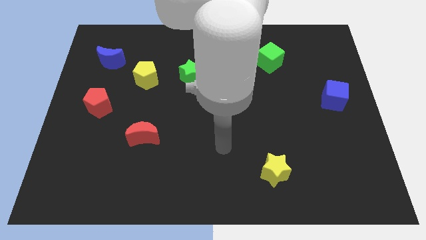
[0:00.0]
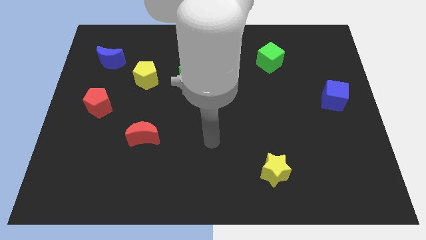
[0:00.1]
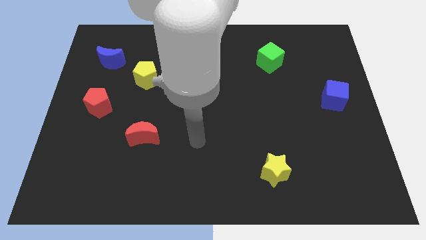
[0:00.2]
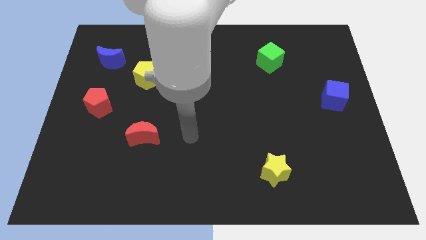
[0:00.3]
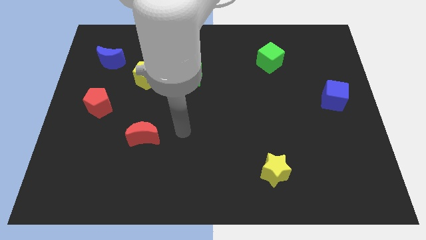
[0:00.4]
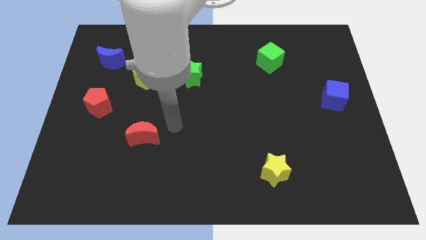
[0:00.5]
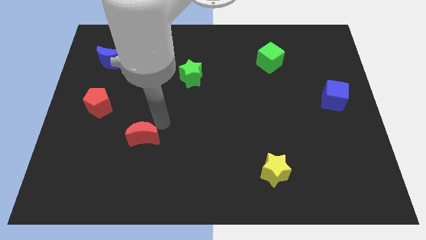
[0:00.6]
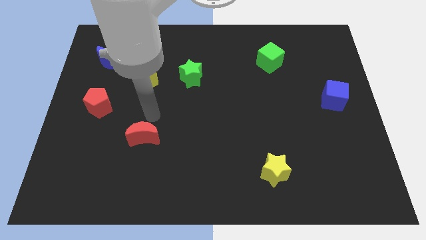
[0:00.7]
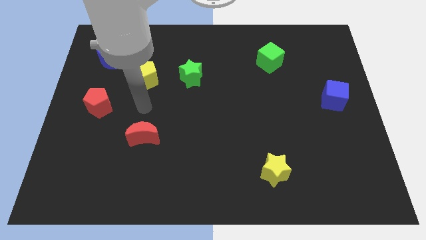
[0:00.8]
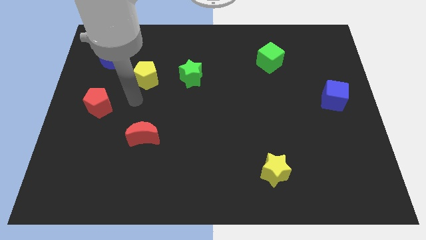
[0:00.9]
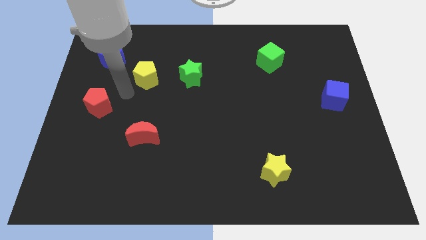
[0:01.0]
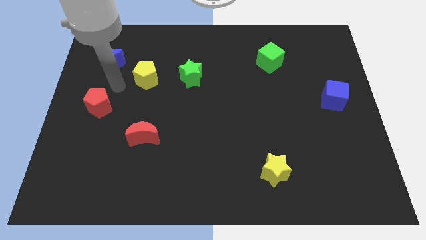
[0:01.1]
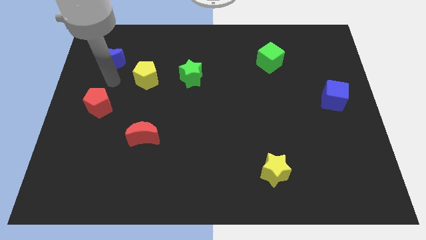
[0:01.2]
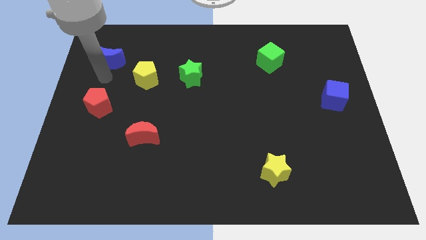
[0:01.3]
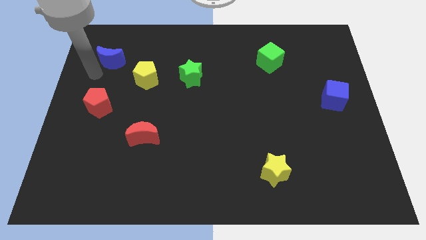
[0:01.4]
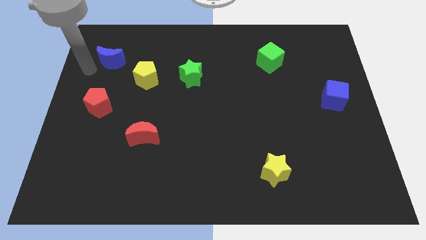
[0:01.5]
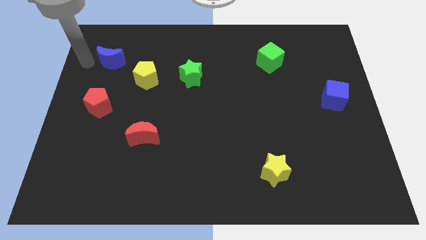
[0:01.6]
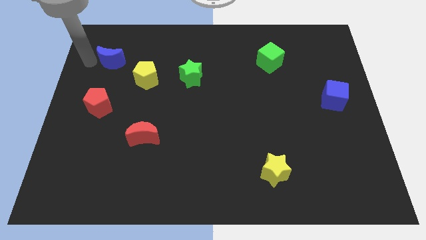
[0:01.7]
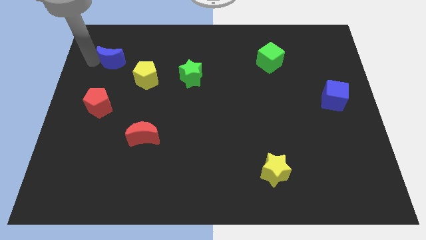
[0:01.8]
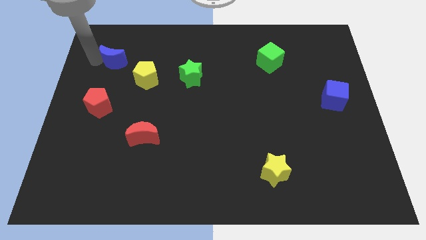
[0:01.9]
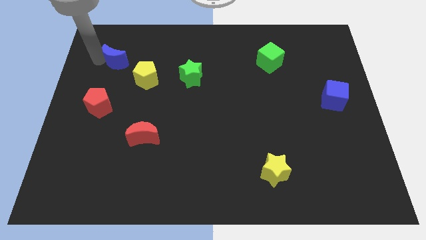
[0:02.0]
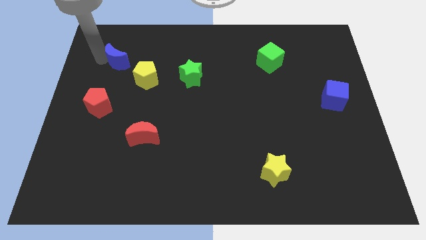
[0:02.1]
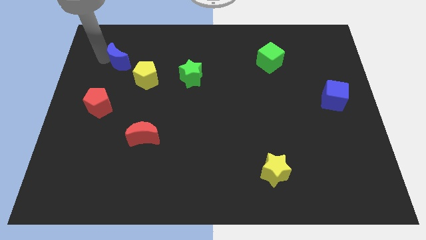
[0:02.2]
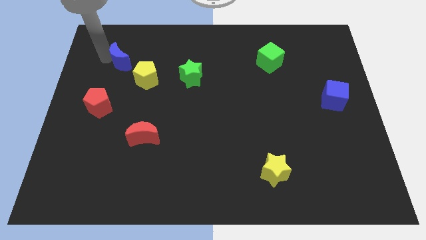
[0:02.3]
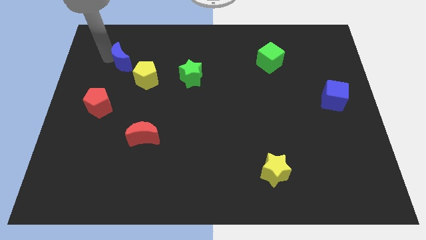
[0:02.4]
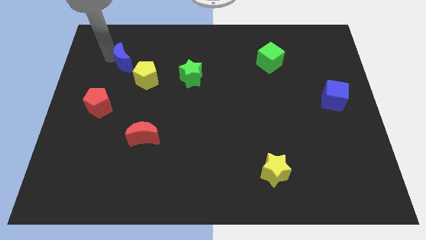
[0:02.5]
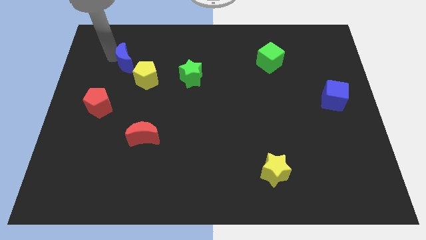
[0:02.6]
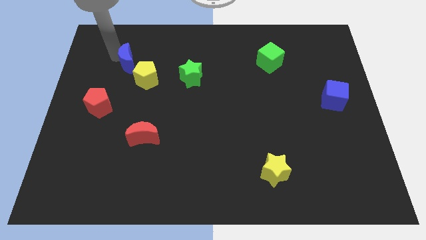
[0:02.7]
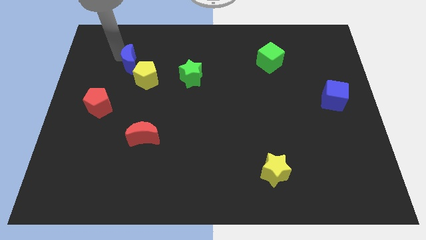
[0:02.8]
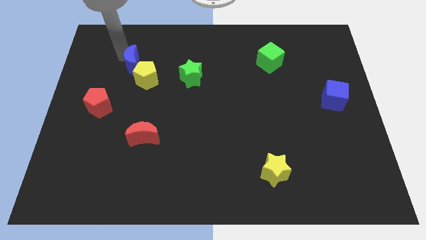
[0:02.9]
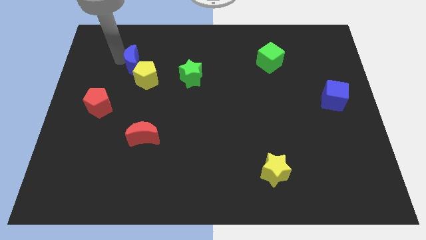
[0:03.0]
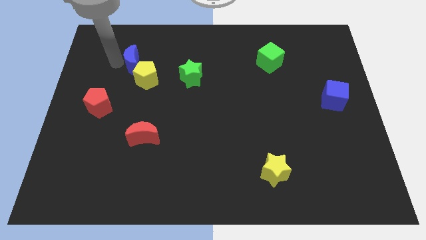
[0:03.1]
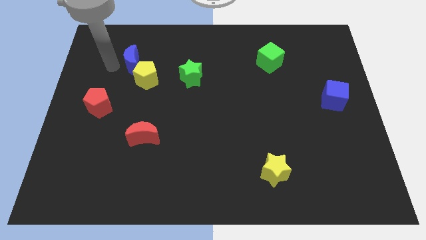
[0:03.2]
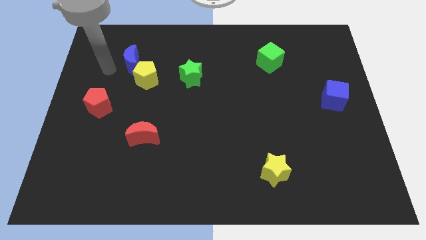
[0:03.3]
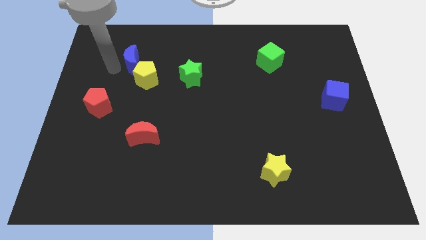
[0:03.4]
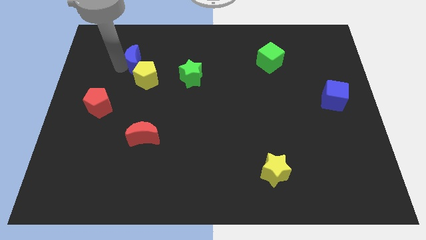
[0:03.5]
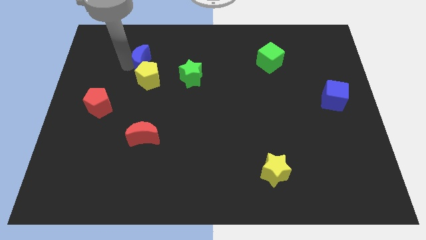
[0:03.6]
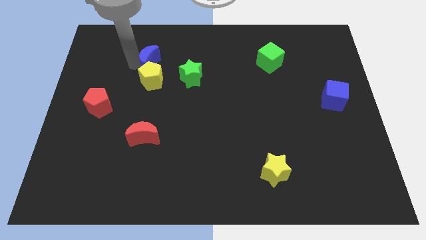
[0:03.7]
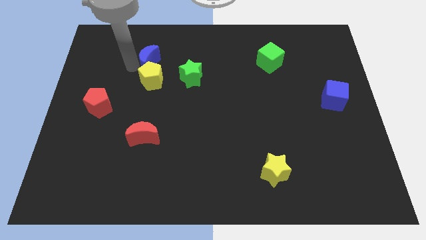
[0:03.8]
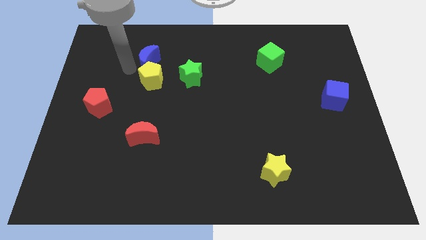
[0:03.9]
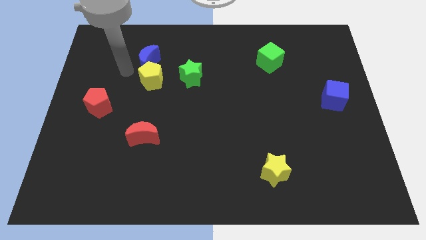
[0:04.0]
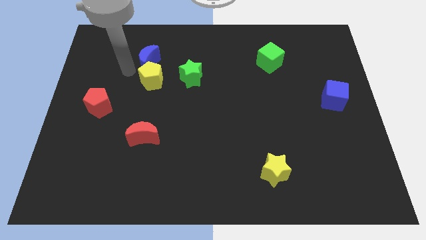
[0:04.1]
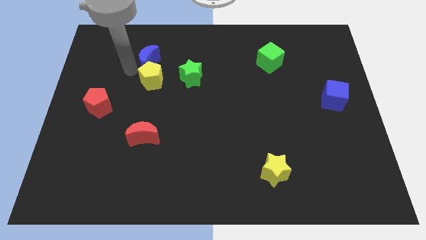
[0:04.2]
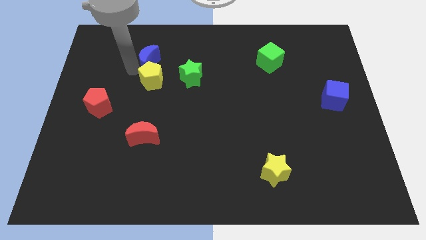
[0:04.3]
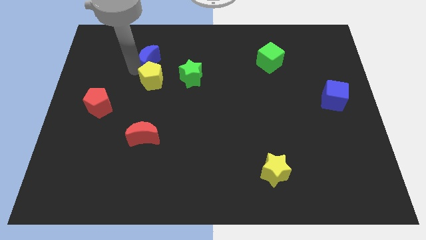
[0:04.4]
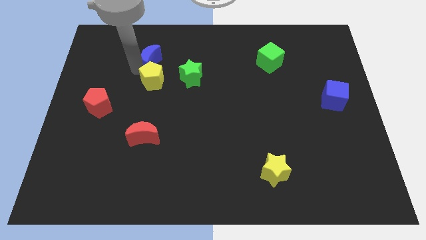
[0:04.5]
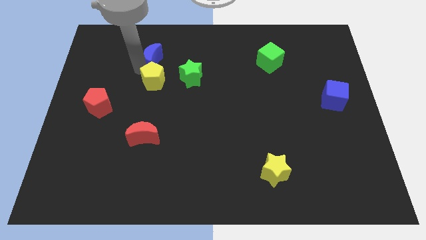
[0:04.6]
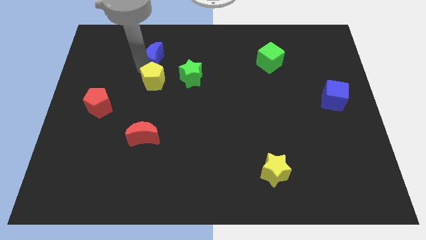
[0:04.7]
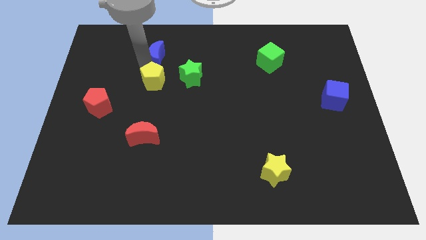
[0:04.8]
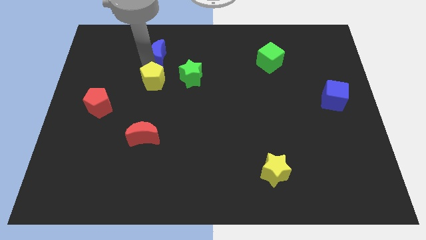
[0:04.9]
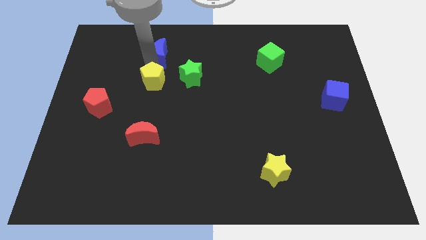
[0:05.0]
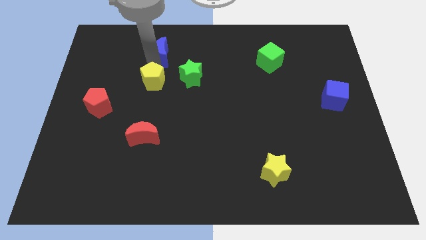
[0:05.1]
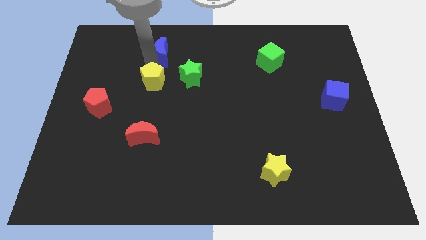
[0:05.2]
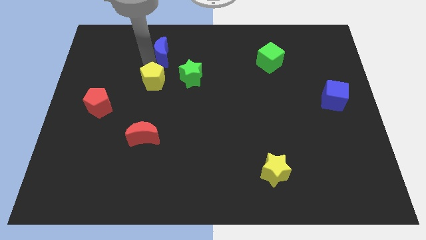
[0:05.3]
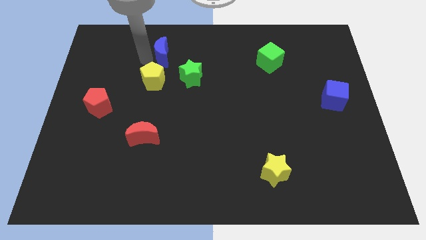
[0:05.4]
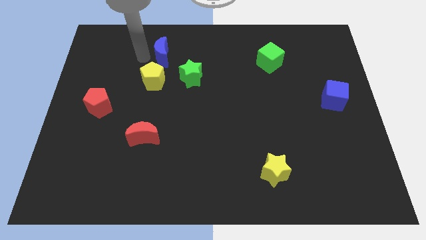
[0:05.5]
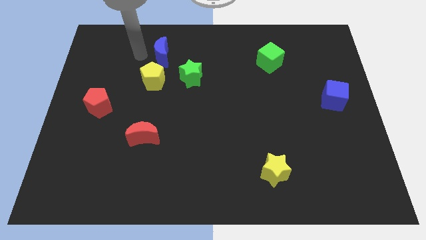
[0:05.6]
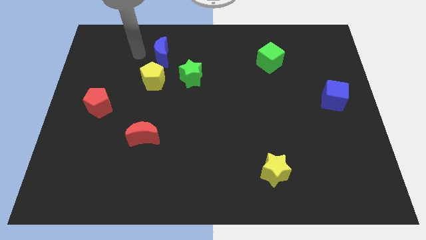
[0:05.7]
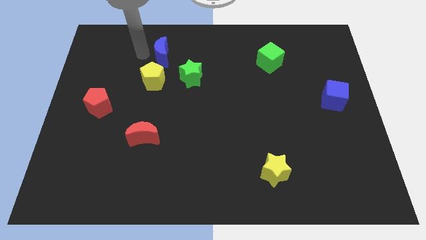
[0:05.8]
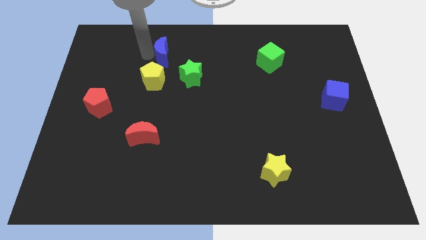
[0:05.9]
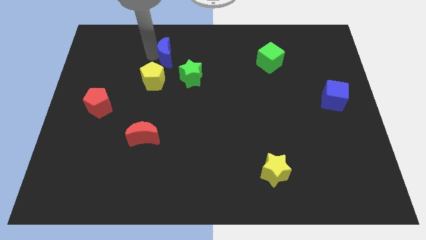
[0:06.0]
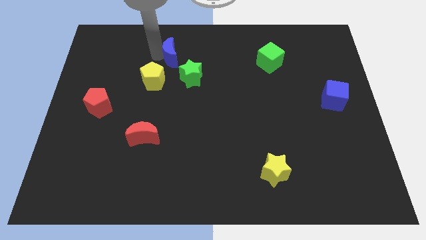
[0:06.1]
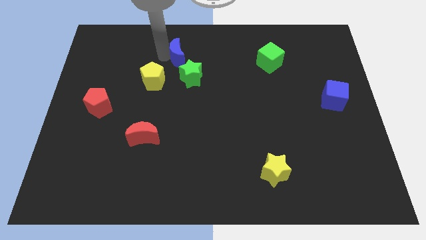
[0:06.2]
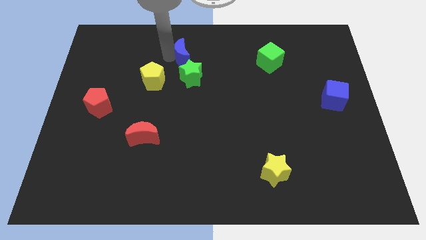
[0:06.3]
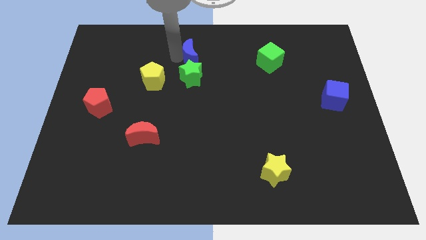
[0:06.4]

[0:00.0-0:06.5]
push the blue moon to the right

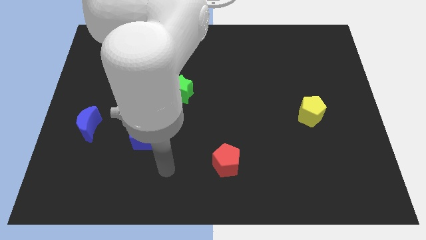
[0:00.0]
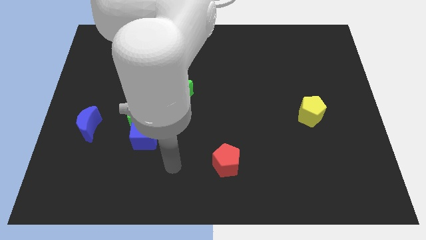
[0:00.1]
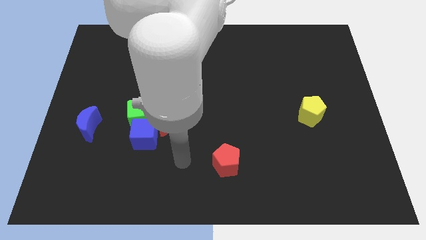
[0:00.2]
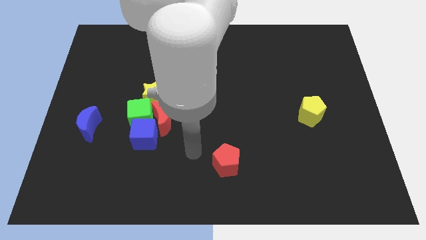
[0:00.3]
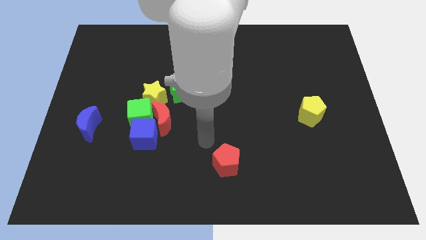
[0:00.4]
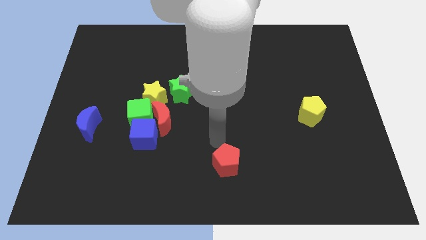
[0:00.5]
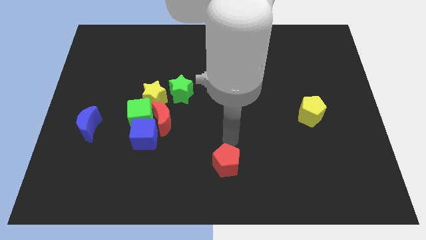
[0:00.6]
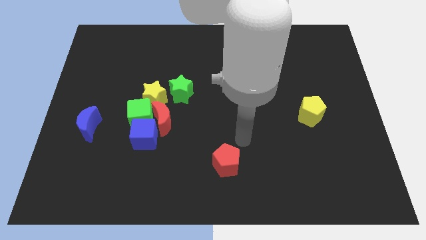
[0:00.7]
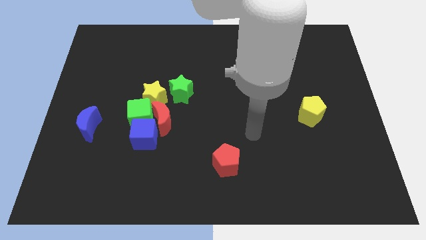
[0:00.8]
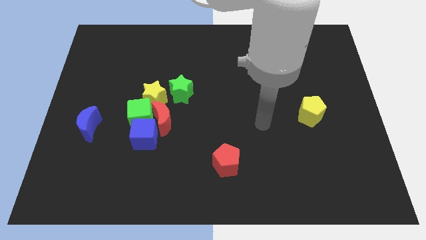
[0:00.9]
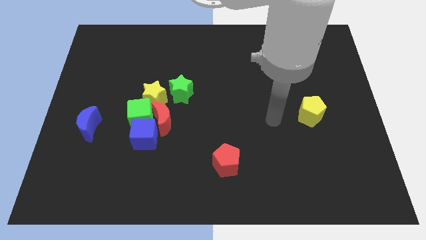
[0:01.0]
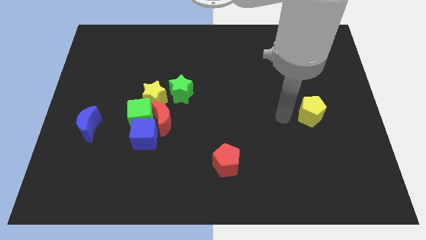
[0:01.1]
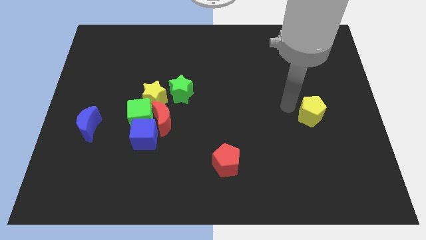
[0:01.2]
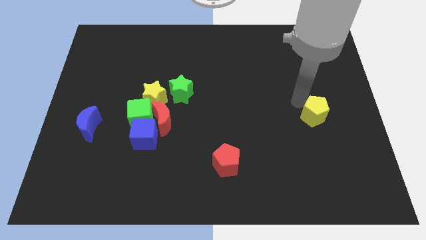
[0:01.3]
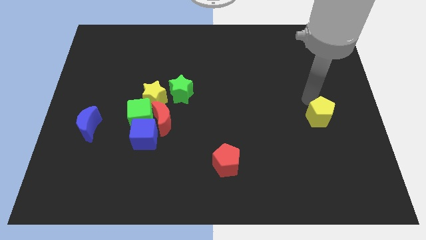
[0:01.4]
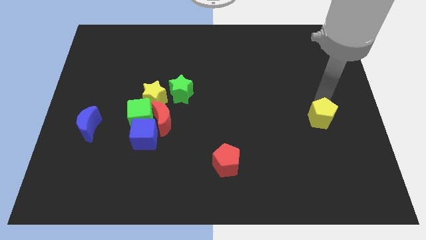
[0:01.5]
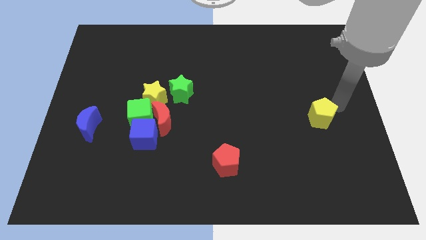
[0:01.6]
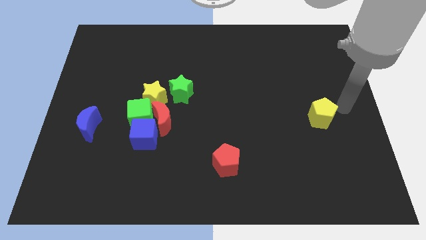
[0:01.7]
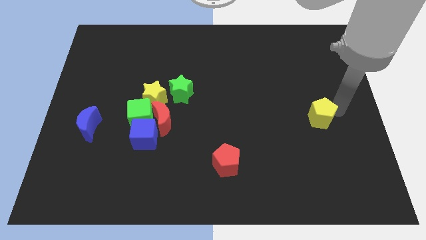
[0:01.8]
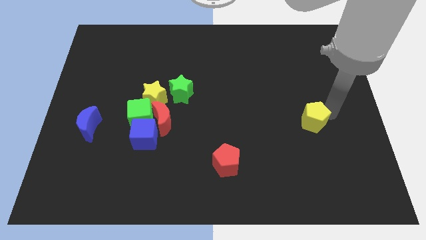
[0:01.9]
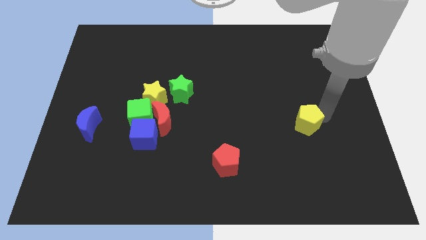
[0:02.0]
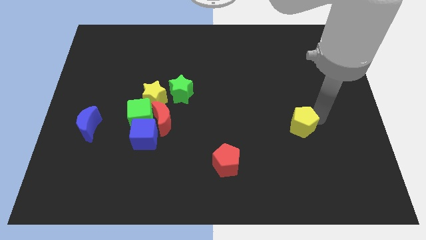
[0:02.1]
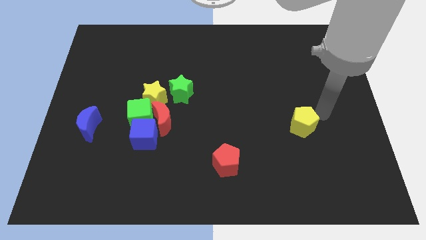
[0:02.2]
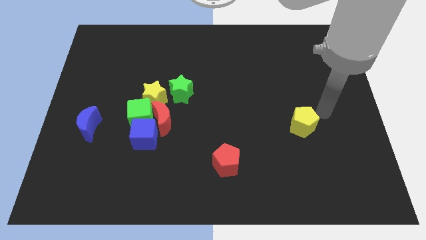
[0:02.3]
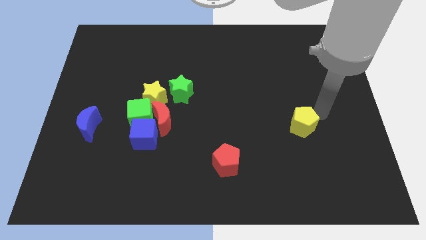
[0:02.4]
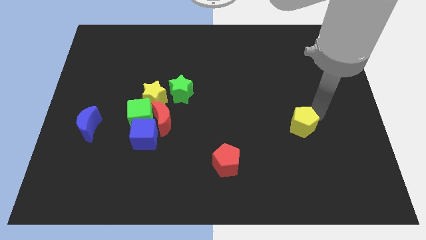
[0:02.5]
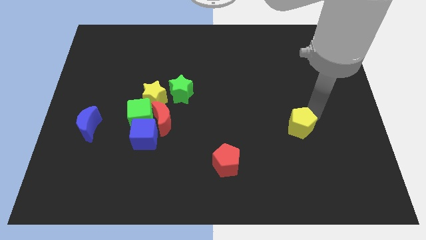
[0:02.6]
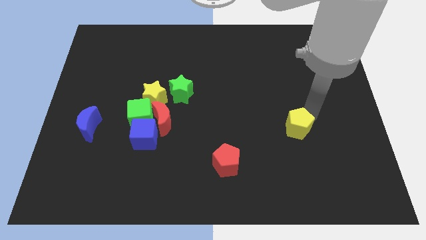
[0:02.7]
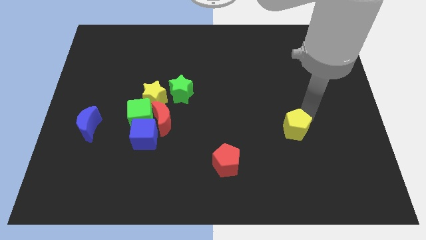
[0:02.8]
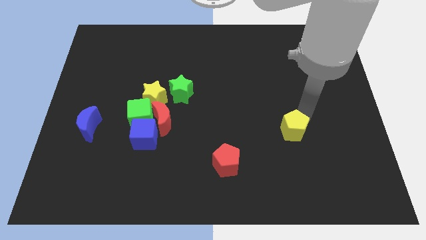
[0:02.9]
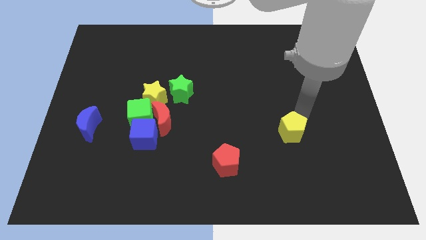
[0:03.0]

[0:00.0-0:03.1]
move the yellow pentagon downwards and to the left diagonally slightly
